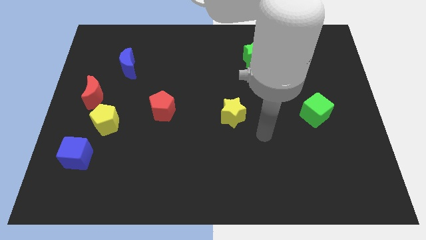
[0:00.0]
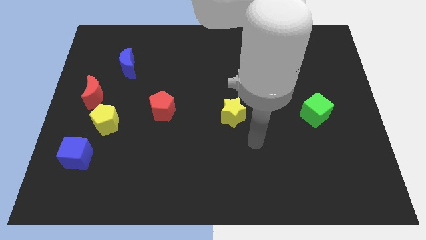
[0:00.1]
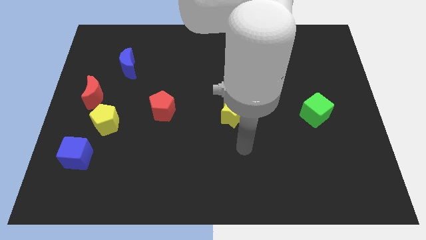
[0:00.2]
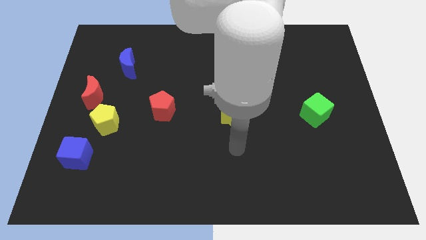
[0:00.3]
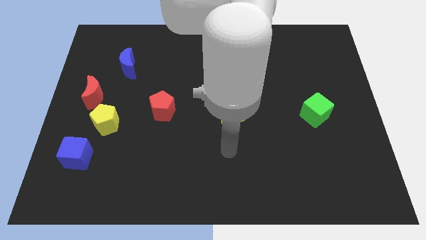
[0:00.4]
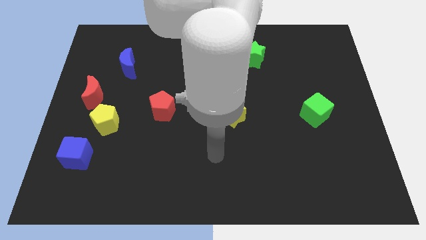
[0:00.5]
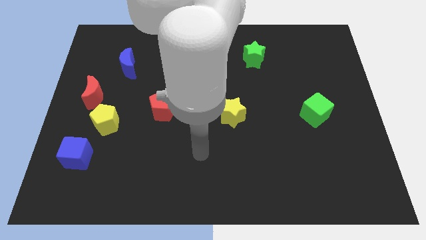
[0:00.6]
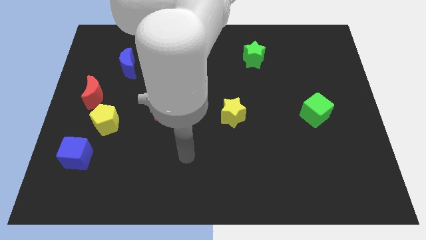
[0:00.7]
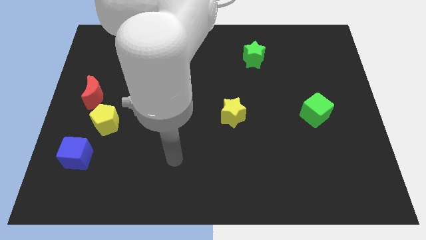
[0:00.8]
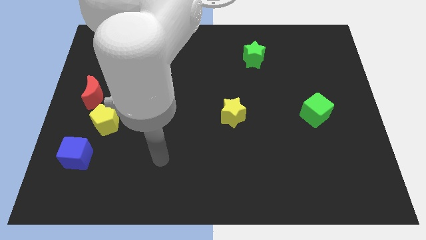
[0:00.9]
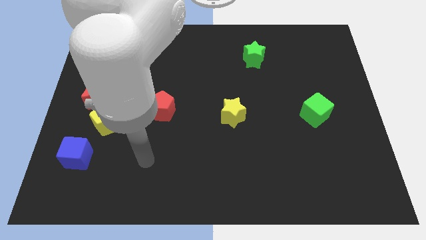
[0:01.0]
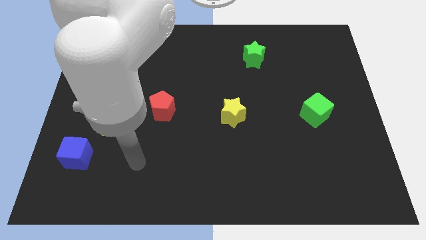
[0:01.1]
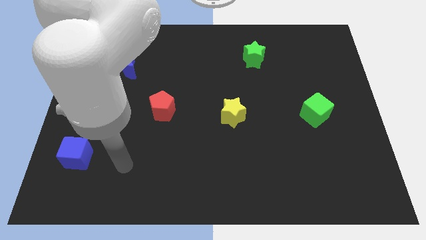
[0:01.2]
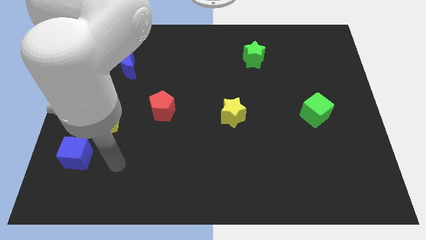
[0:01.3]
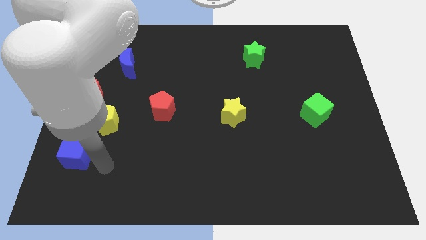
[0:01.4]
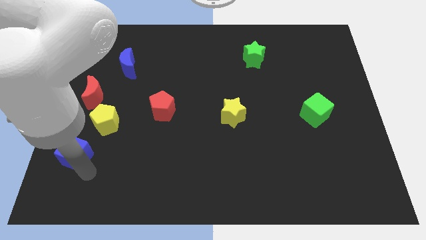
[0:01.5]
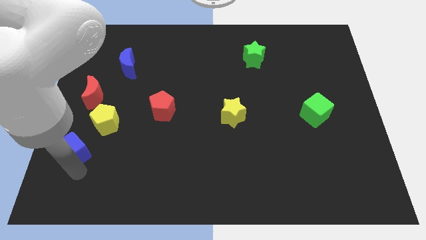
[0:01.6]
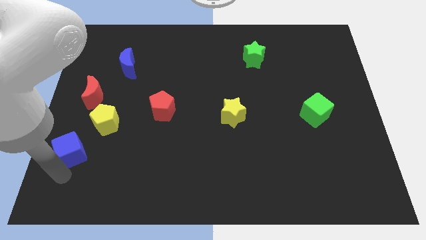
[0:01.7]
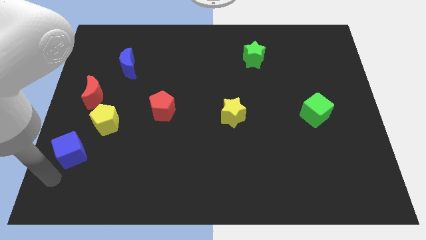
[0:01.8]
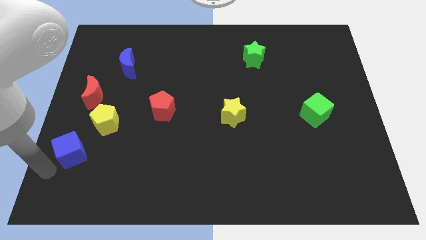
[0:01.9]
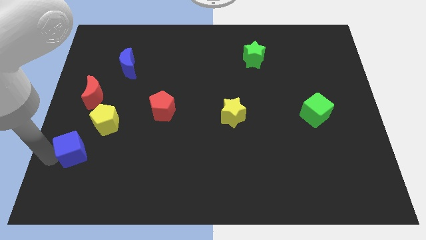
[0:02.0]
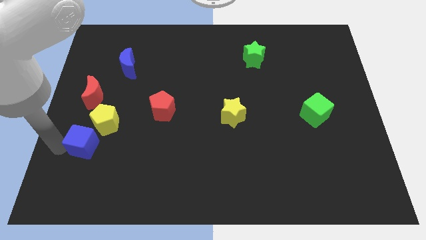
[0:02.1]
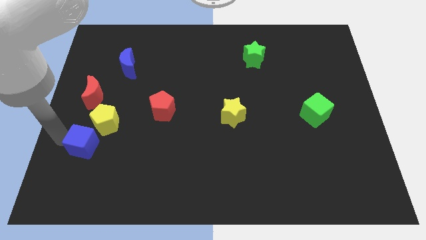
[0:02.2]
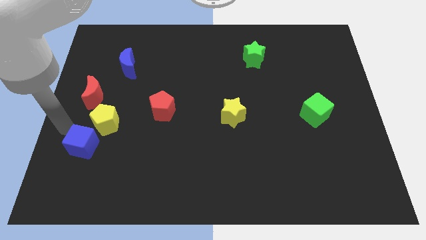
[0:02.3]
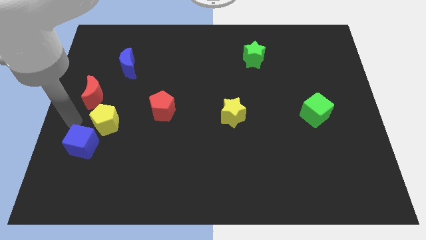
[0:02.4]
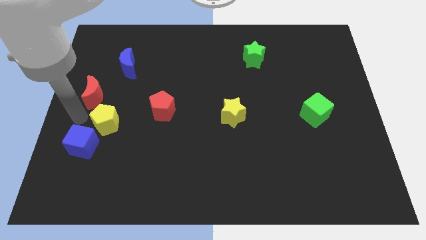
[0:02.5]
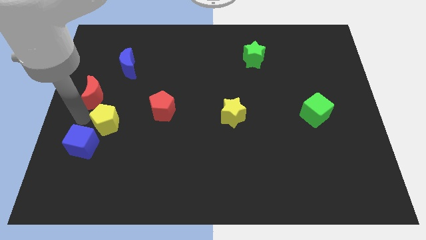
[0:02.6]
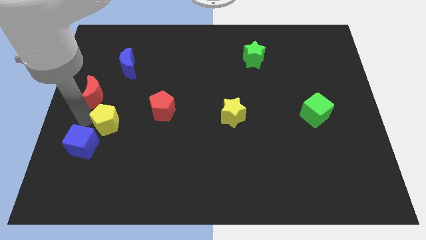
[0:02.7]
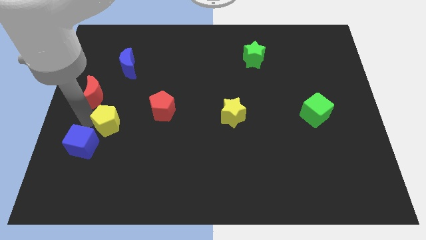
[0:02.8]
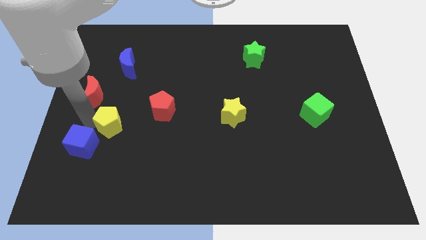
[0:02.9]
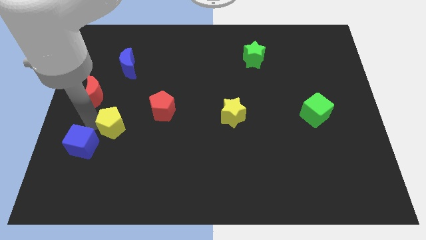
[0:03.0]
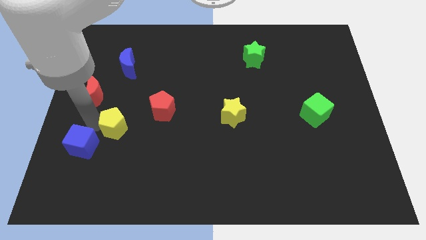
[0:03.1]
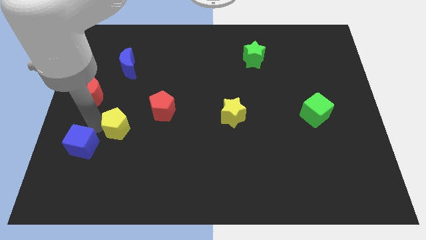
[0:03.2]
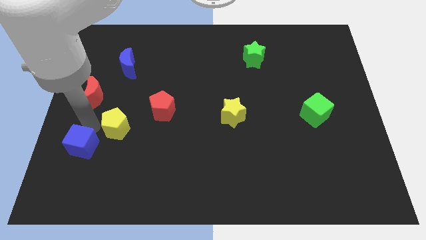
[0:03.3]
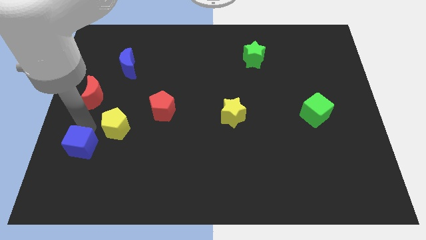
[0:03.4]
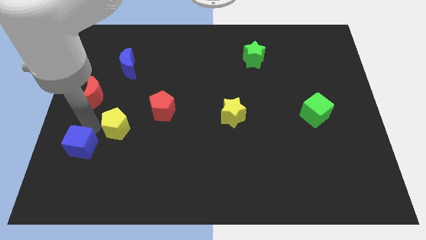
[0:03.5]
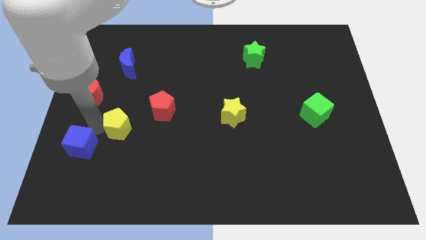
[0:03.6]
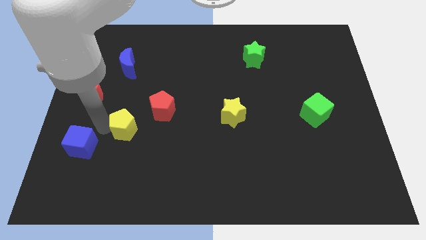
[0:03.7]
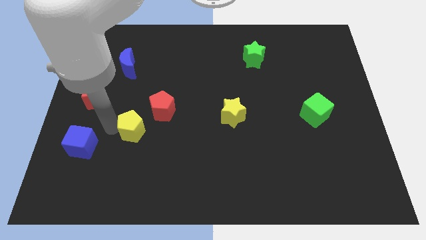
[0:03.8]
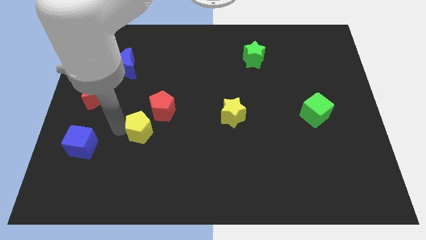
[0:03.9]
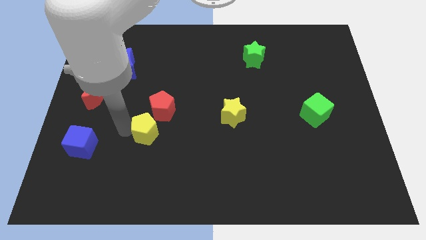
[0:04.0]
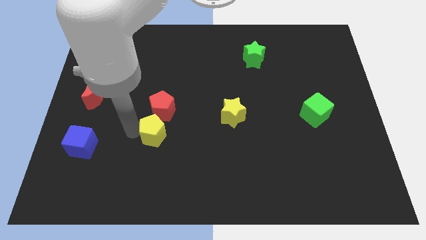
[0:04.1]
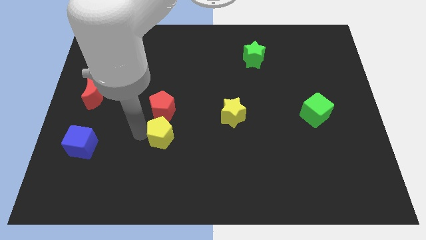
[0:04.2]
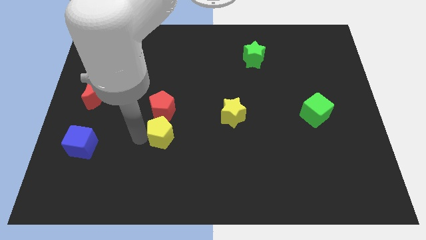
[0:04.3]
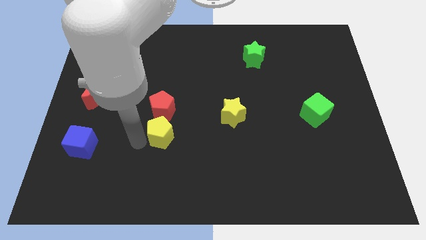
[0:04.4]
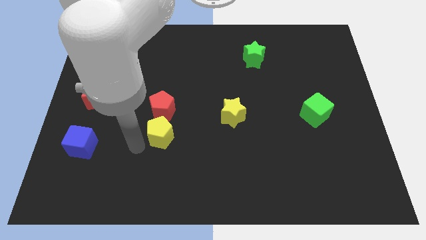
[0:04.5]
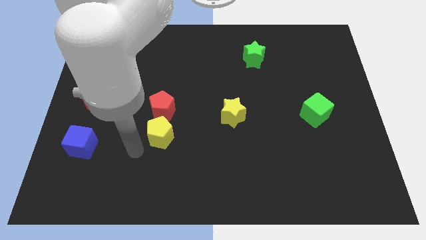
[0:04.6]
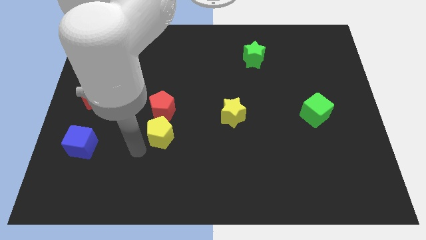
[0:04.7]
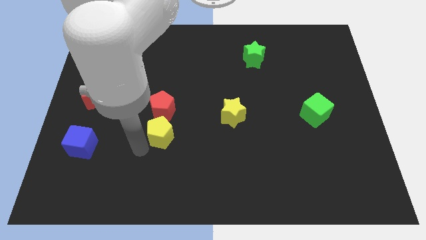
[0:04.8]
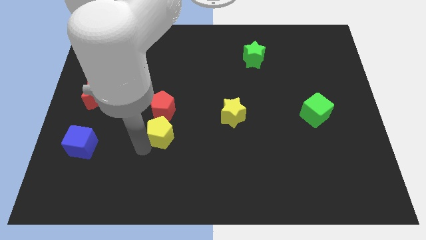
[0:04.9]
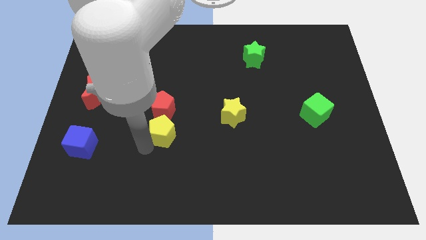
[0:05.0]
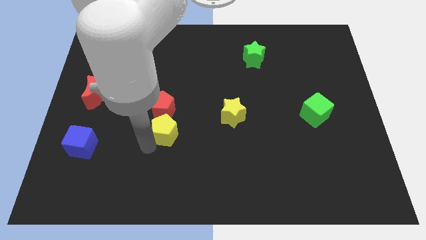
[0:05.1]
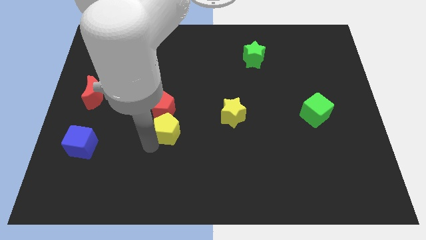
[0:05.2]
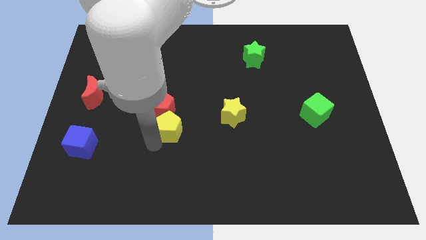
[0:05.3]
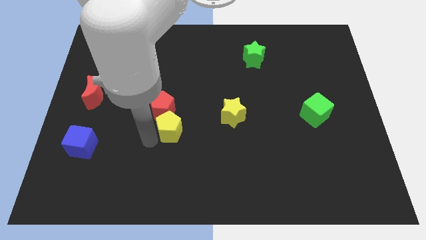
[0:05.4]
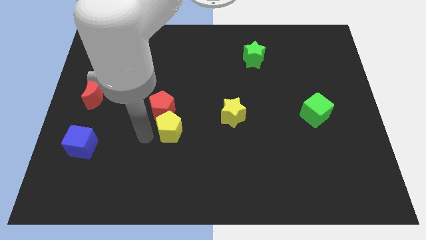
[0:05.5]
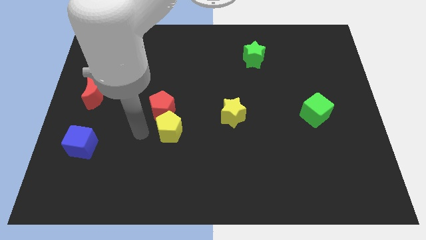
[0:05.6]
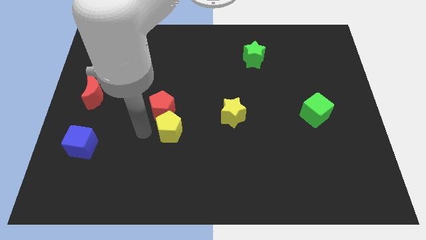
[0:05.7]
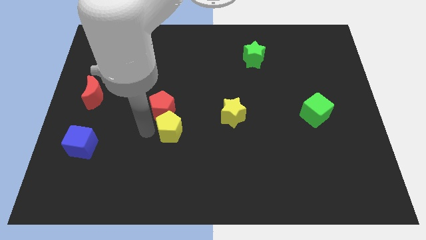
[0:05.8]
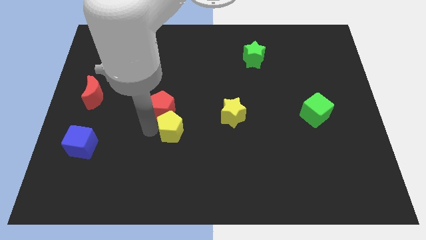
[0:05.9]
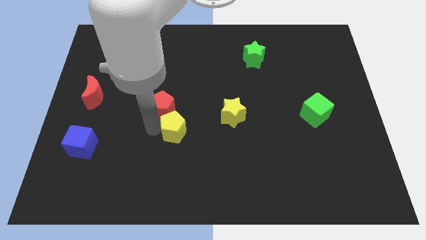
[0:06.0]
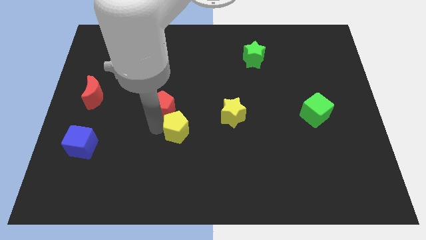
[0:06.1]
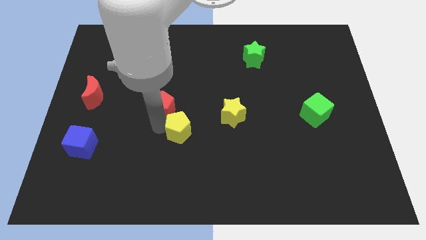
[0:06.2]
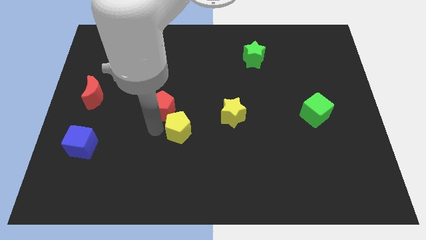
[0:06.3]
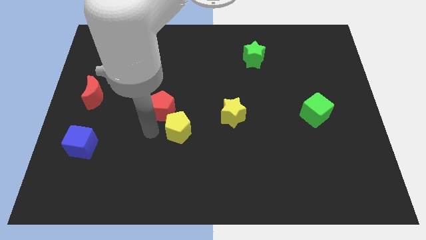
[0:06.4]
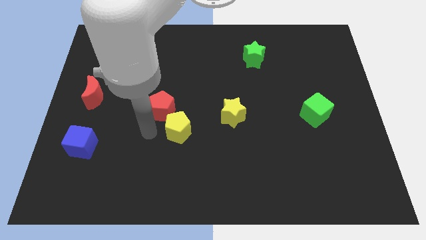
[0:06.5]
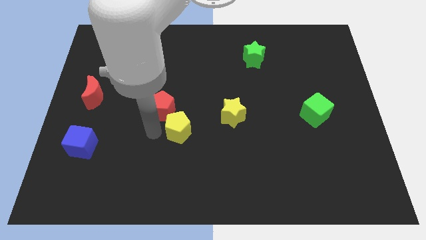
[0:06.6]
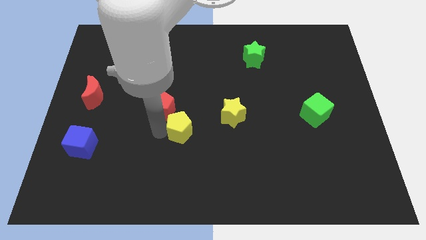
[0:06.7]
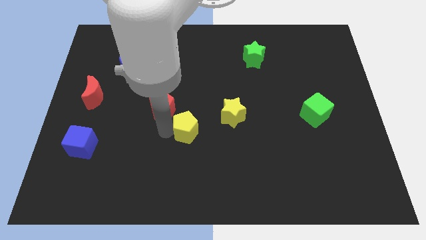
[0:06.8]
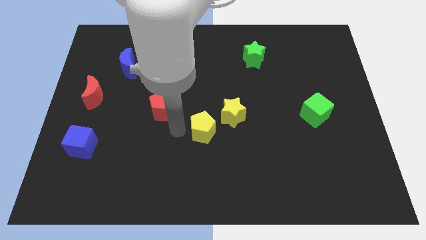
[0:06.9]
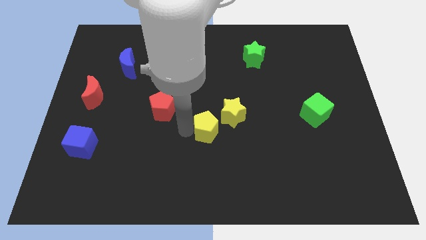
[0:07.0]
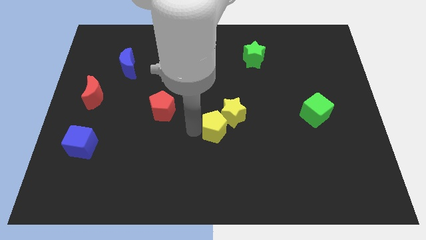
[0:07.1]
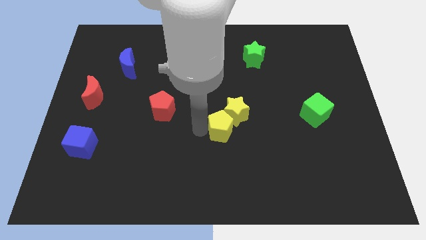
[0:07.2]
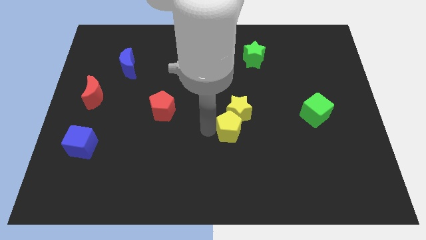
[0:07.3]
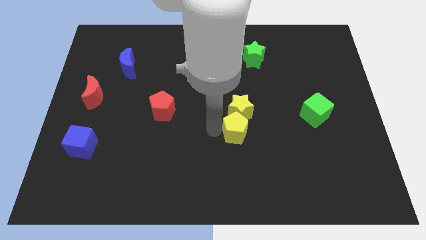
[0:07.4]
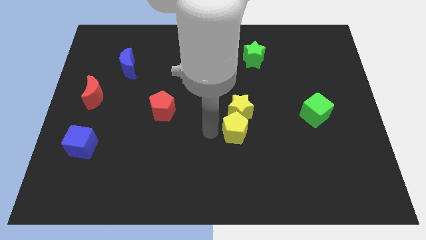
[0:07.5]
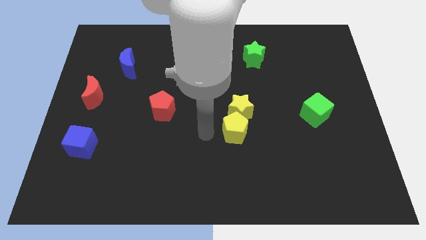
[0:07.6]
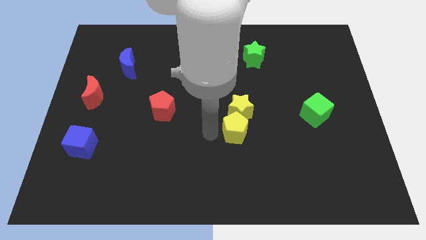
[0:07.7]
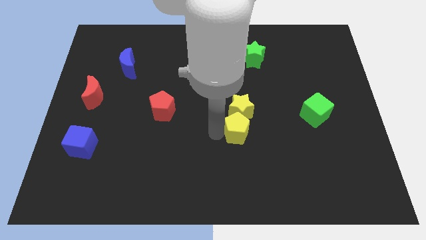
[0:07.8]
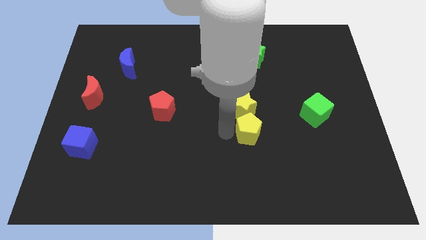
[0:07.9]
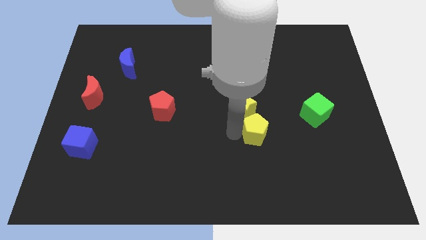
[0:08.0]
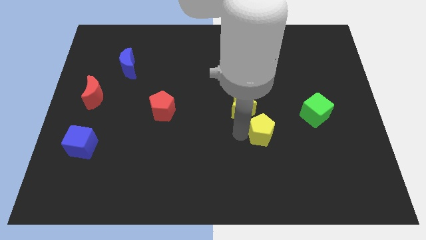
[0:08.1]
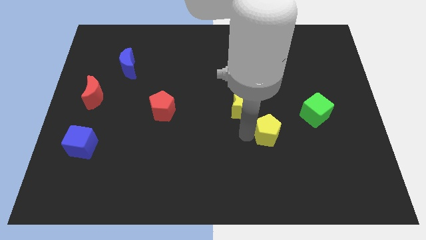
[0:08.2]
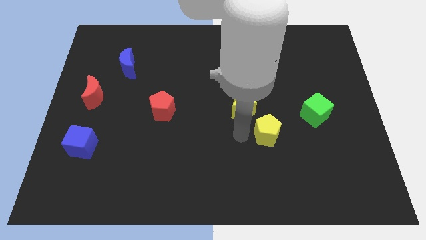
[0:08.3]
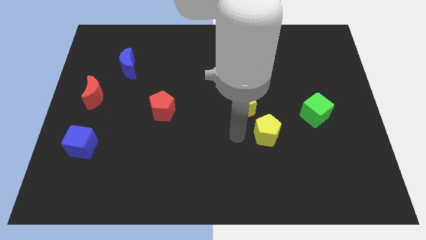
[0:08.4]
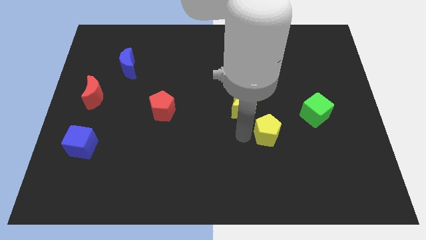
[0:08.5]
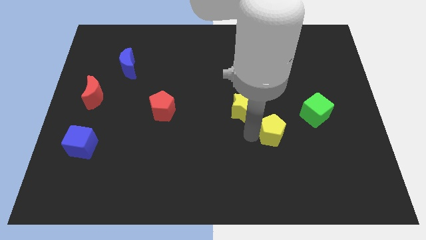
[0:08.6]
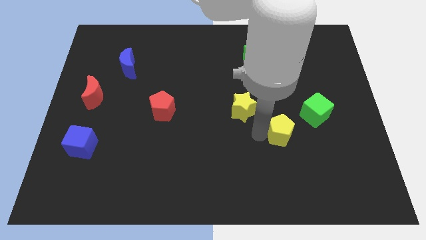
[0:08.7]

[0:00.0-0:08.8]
put the yellow pentagon to the bottom left of the green cube
